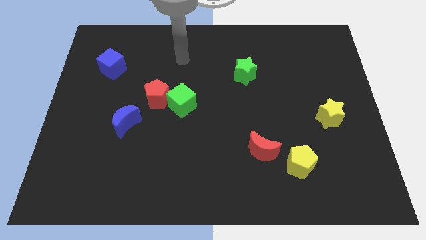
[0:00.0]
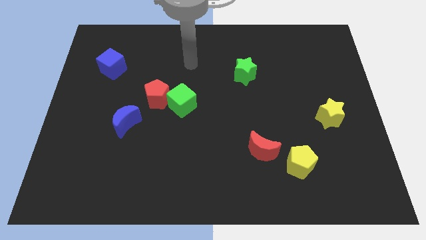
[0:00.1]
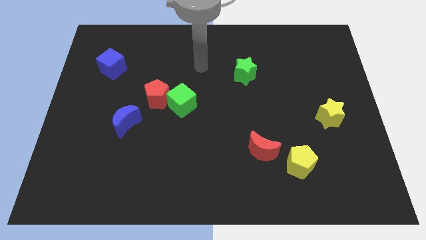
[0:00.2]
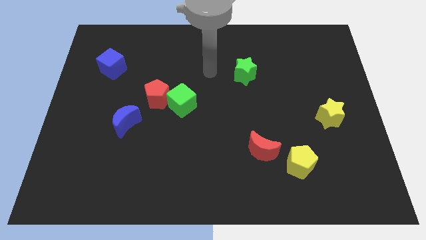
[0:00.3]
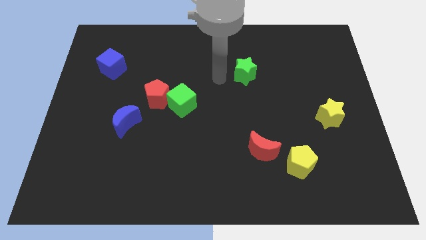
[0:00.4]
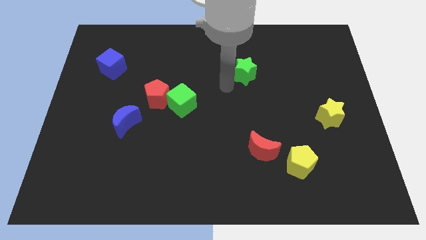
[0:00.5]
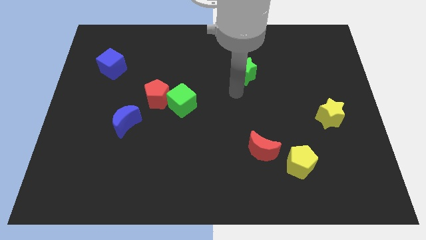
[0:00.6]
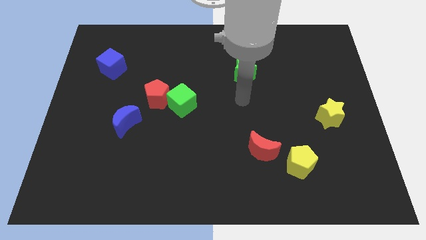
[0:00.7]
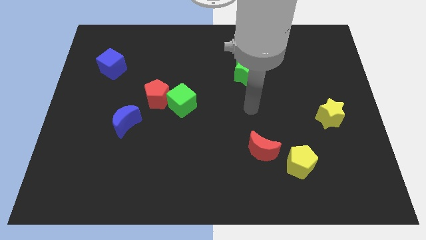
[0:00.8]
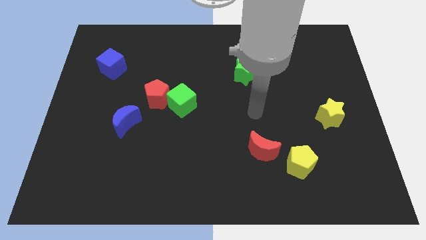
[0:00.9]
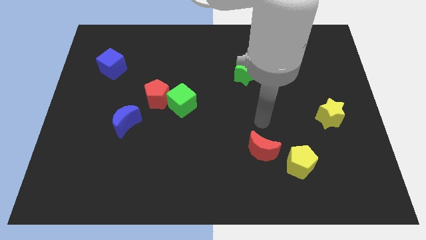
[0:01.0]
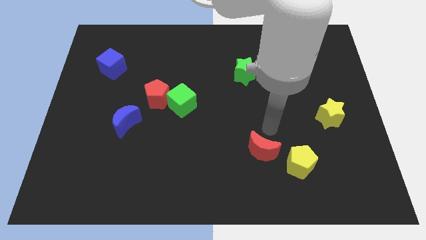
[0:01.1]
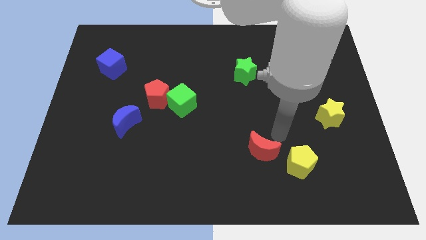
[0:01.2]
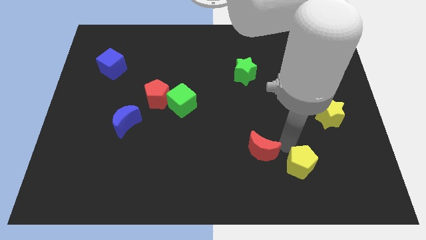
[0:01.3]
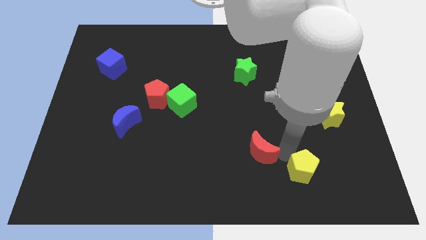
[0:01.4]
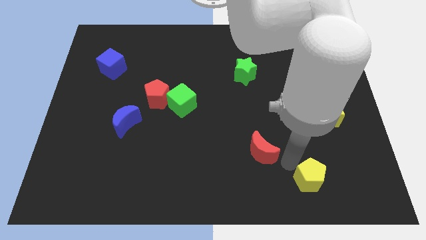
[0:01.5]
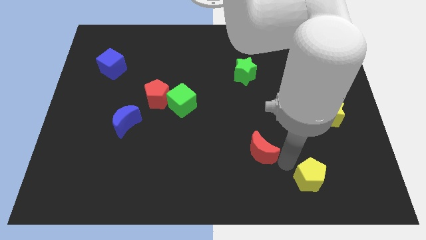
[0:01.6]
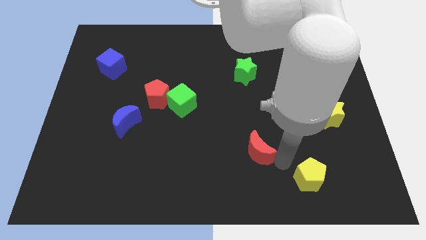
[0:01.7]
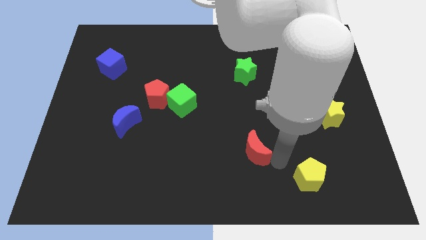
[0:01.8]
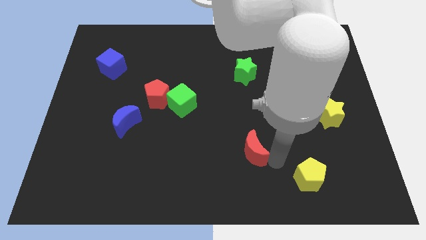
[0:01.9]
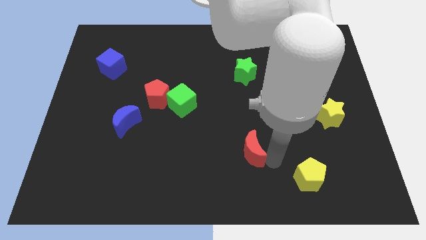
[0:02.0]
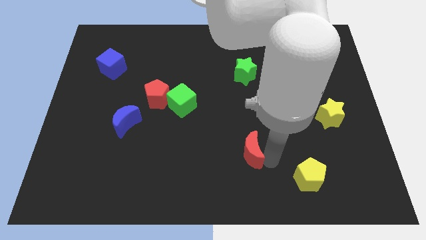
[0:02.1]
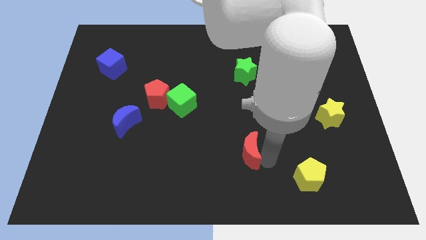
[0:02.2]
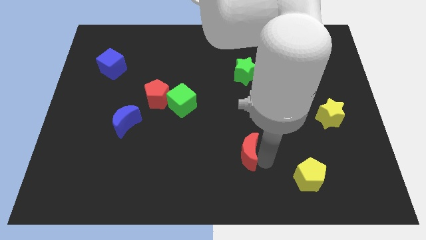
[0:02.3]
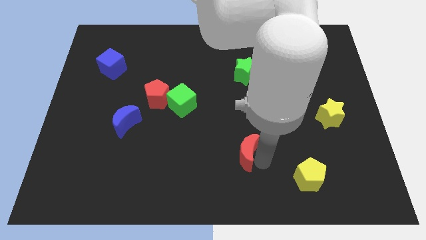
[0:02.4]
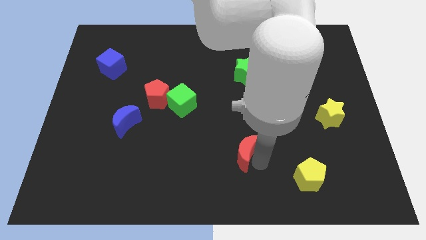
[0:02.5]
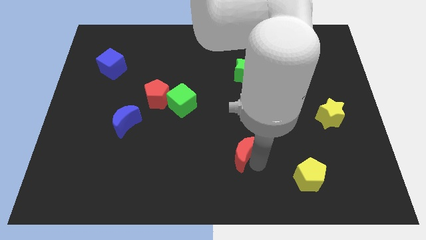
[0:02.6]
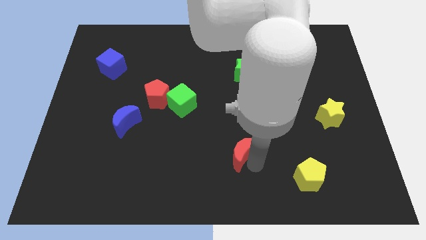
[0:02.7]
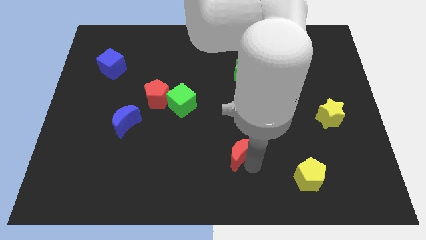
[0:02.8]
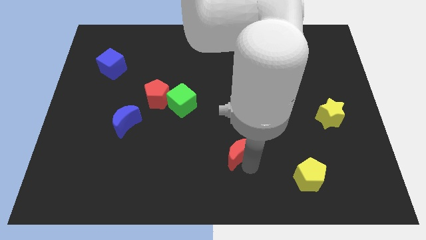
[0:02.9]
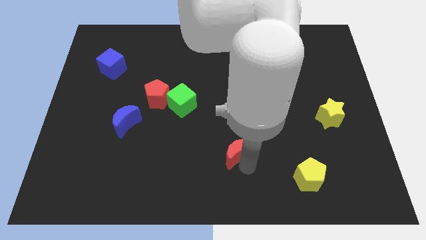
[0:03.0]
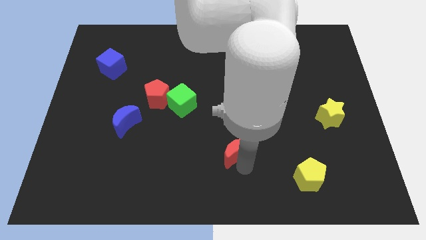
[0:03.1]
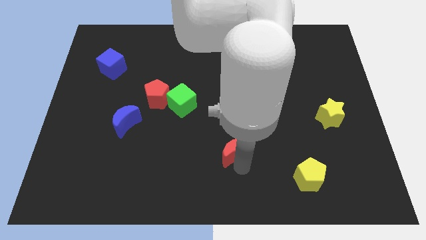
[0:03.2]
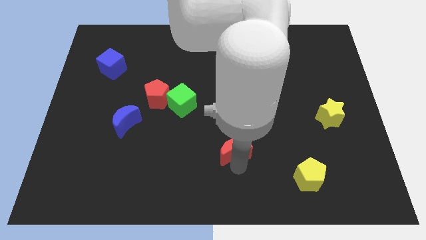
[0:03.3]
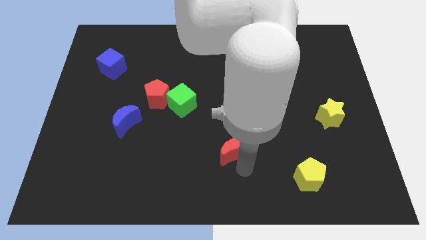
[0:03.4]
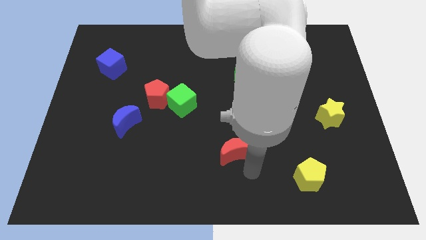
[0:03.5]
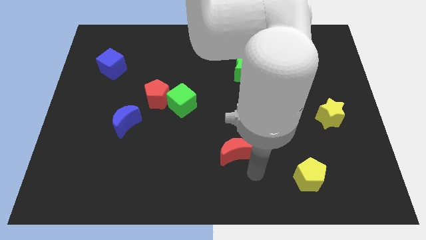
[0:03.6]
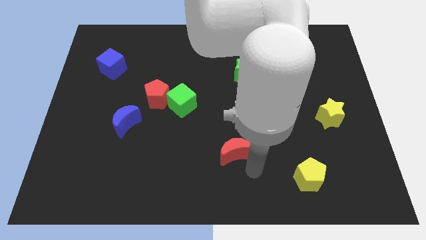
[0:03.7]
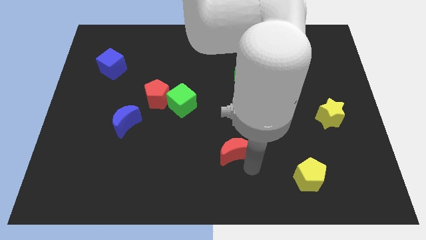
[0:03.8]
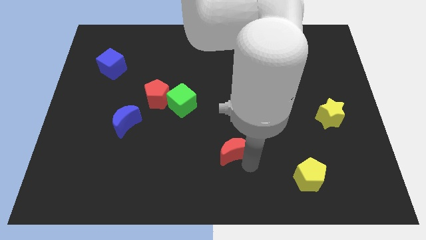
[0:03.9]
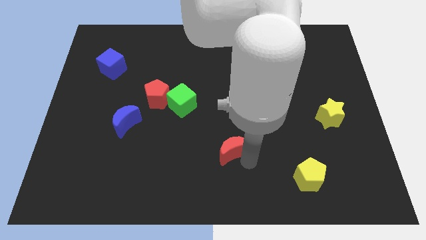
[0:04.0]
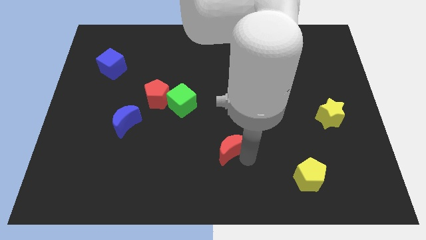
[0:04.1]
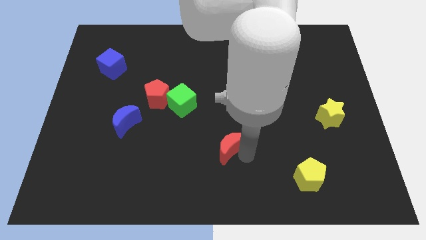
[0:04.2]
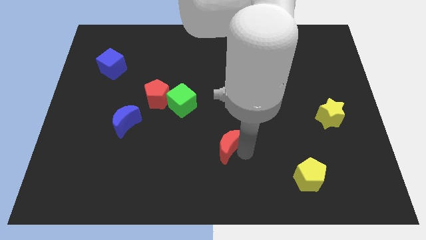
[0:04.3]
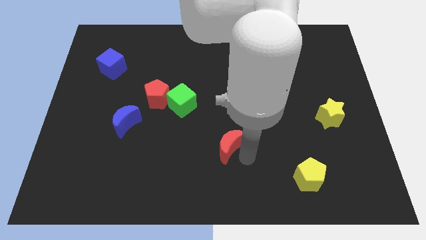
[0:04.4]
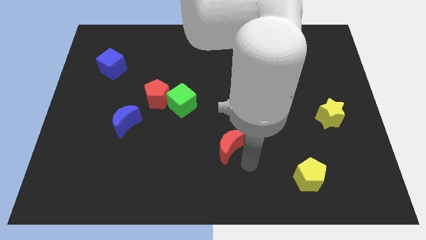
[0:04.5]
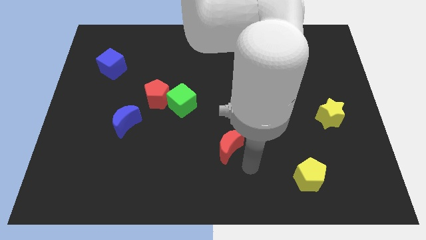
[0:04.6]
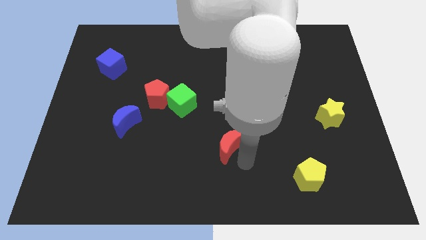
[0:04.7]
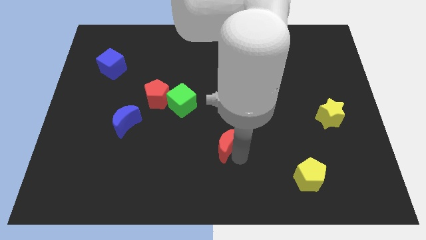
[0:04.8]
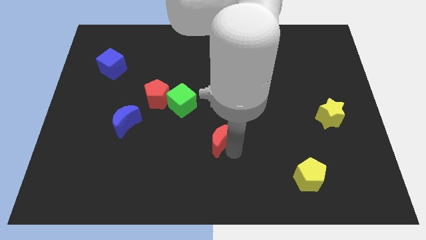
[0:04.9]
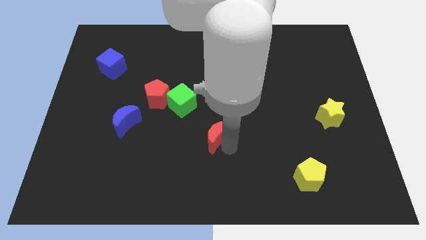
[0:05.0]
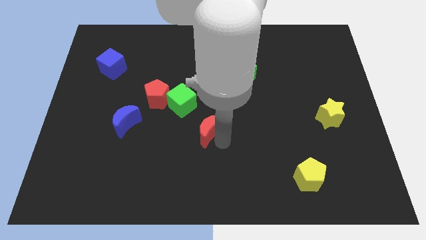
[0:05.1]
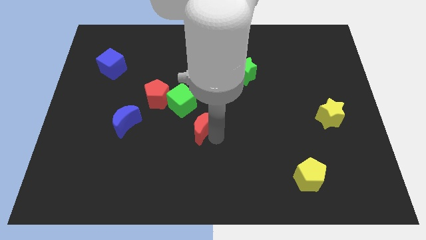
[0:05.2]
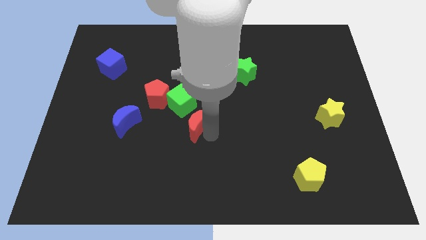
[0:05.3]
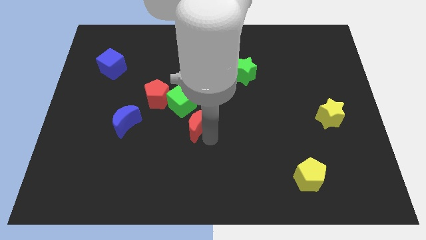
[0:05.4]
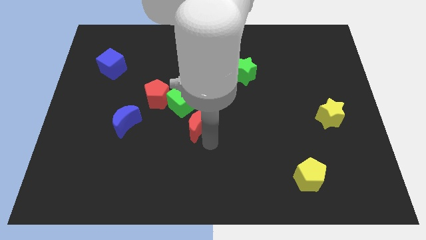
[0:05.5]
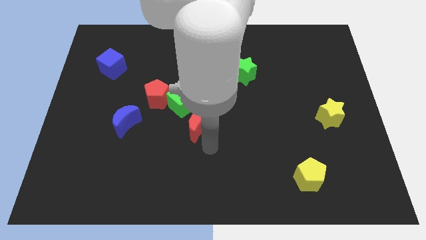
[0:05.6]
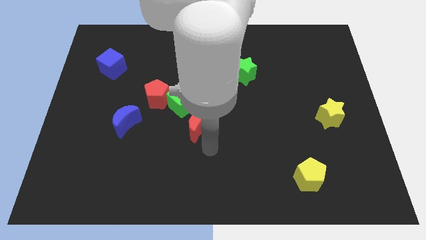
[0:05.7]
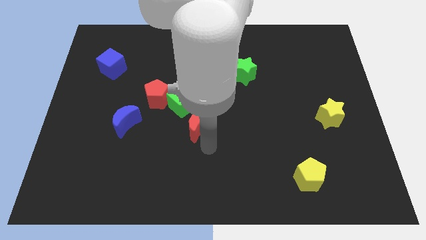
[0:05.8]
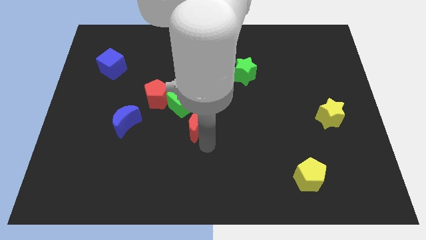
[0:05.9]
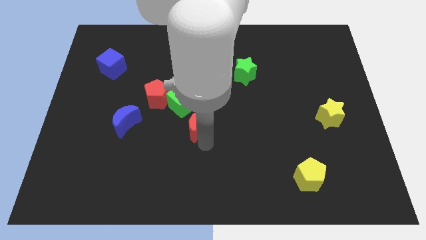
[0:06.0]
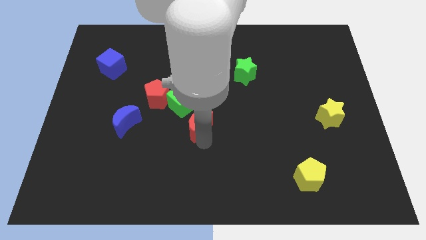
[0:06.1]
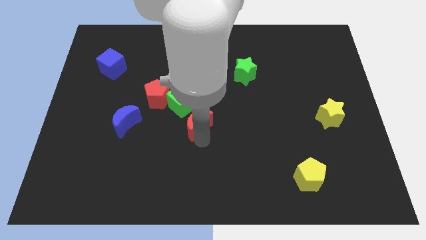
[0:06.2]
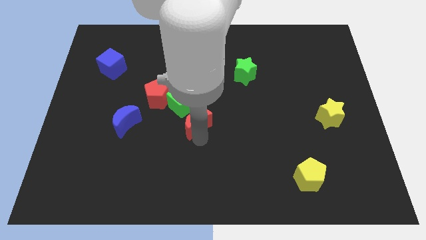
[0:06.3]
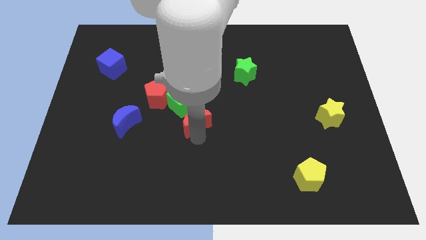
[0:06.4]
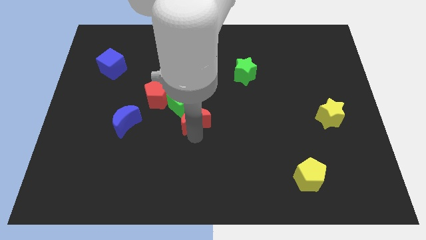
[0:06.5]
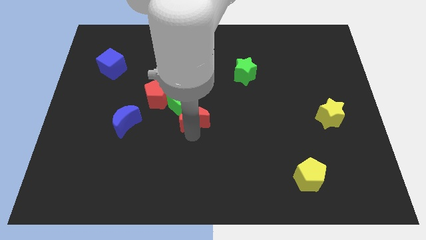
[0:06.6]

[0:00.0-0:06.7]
put the red moon next to the green cube

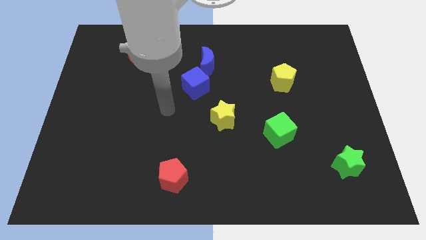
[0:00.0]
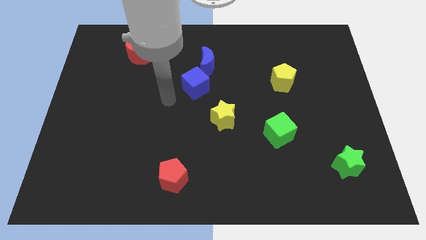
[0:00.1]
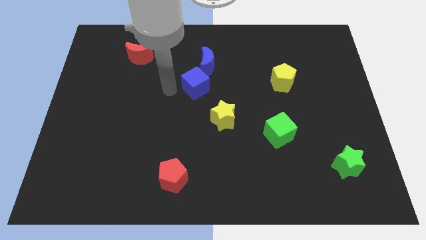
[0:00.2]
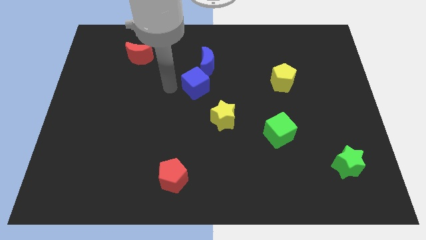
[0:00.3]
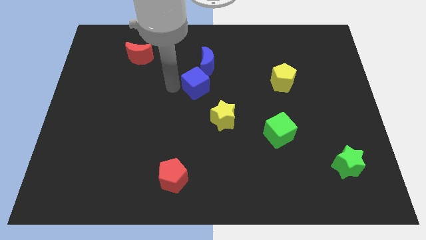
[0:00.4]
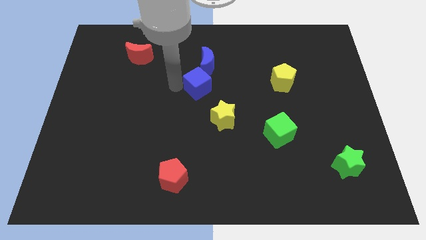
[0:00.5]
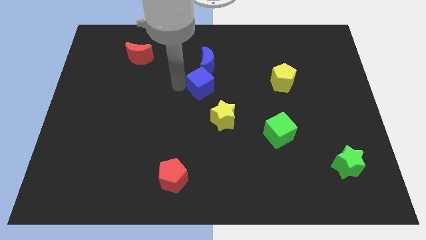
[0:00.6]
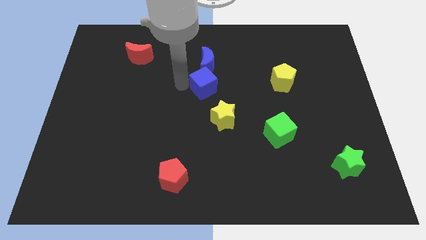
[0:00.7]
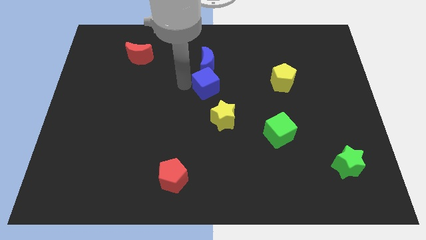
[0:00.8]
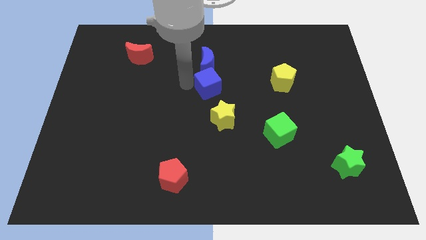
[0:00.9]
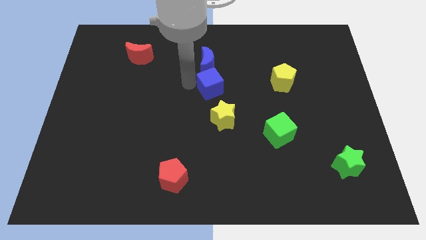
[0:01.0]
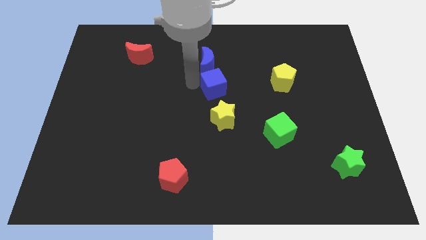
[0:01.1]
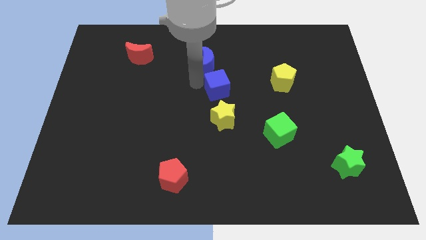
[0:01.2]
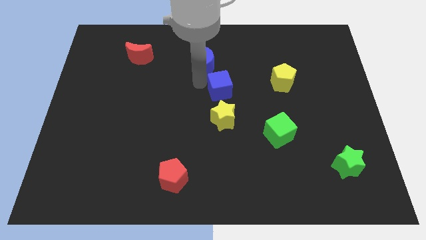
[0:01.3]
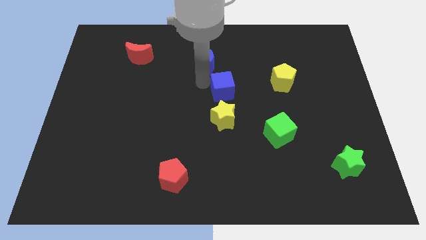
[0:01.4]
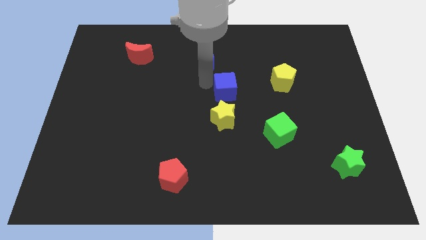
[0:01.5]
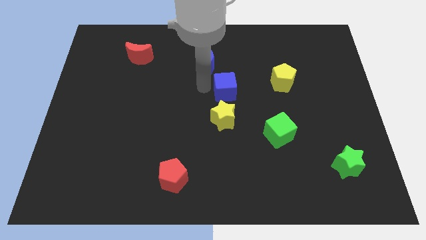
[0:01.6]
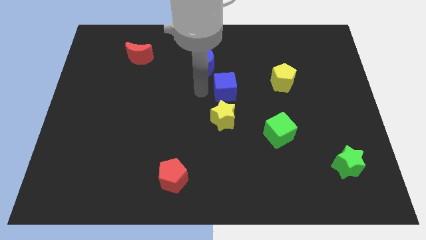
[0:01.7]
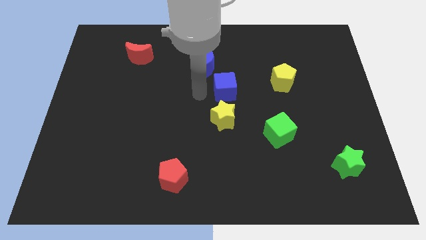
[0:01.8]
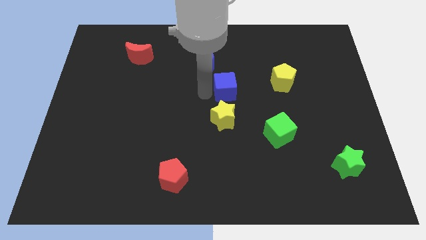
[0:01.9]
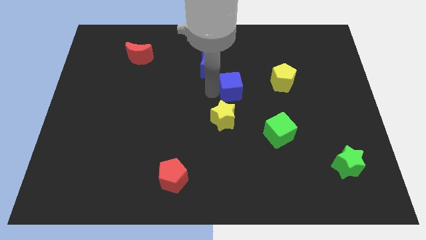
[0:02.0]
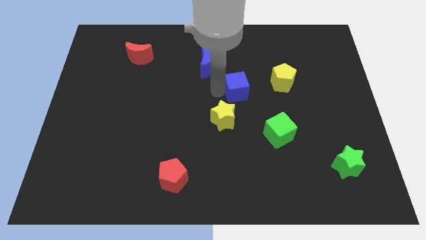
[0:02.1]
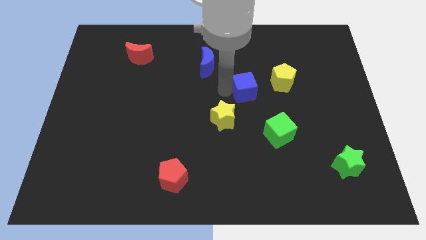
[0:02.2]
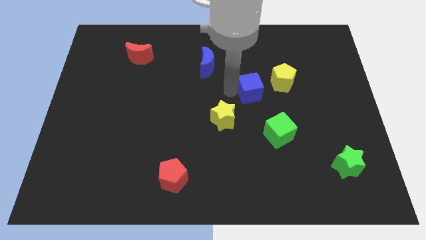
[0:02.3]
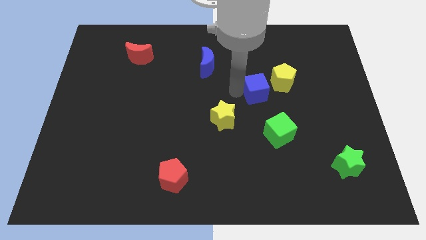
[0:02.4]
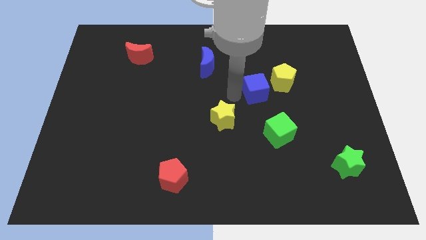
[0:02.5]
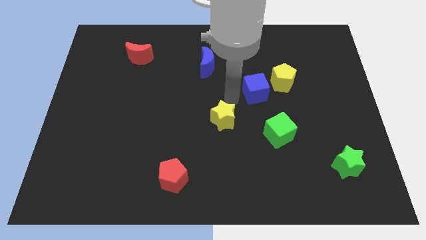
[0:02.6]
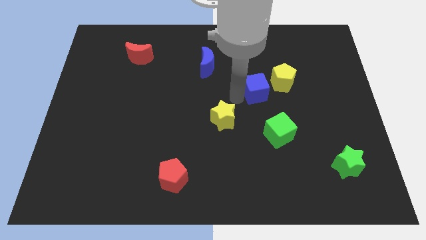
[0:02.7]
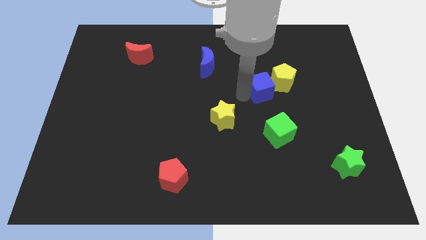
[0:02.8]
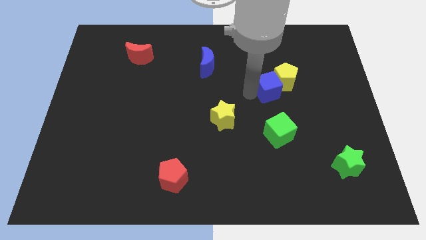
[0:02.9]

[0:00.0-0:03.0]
move the blue cube to the yellow pentagon
